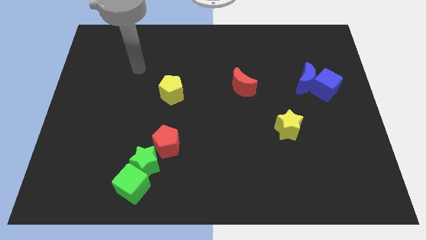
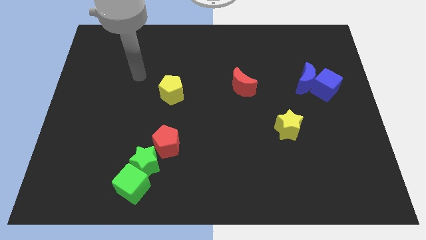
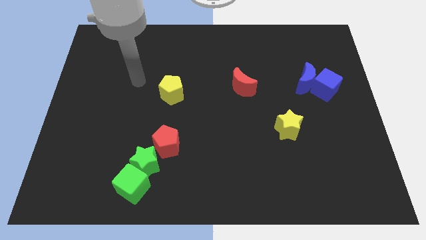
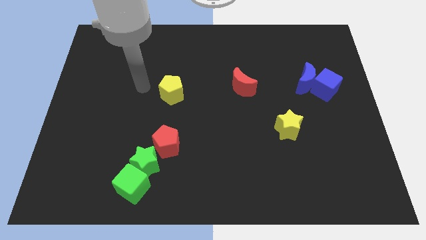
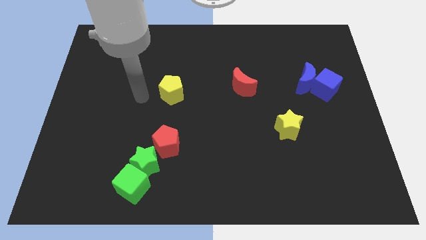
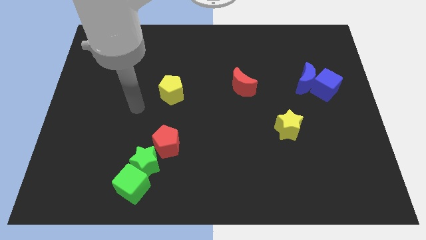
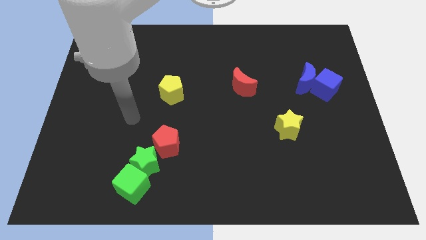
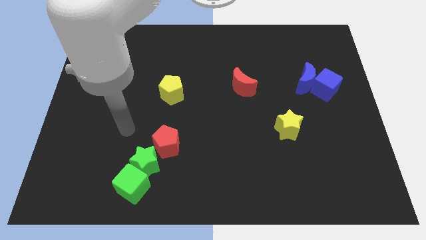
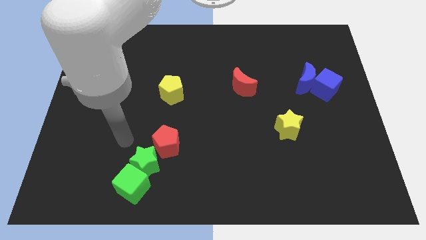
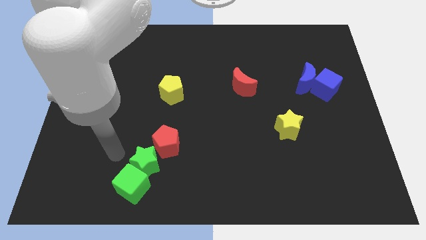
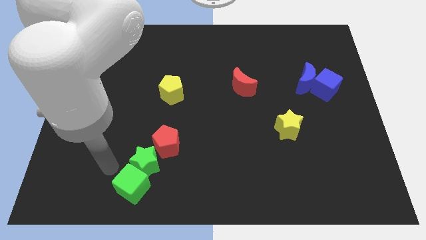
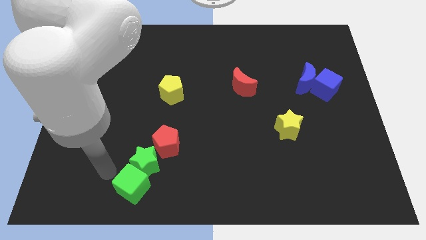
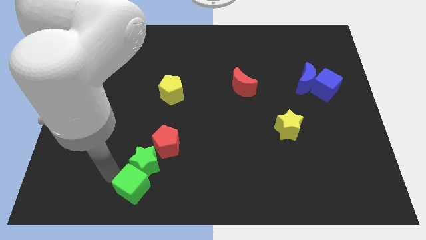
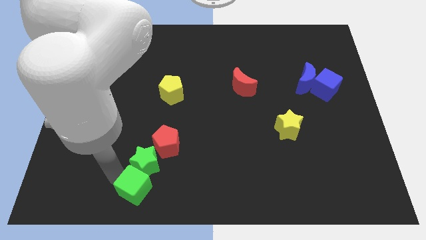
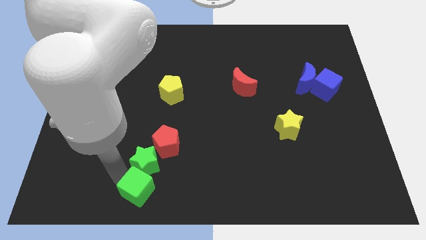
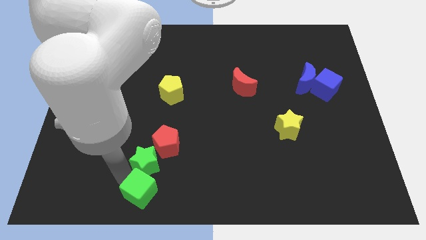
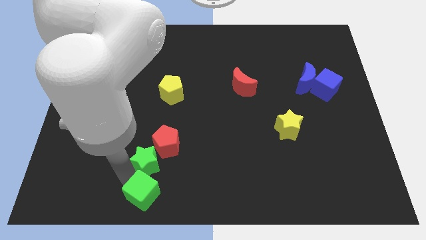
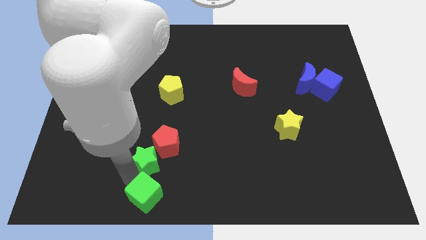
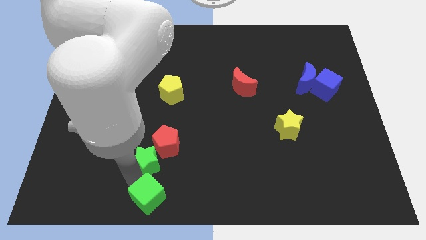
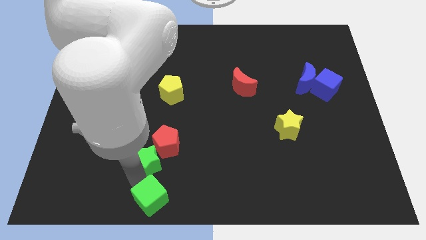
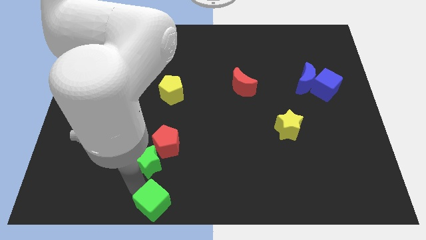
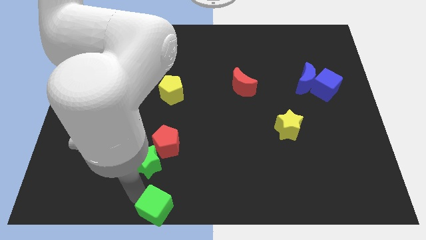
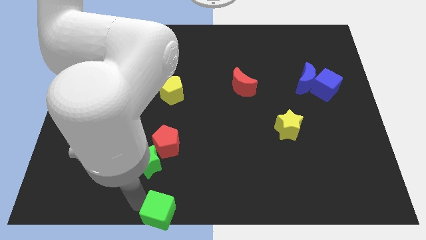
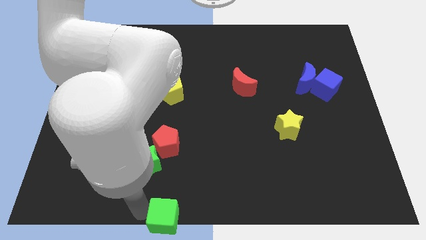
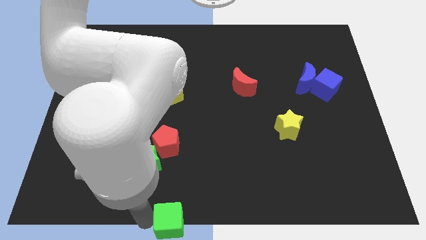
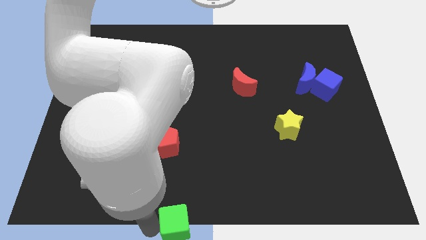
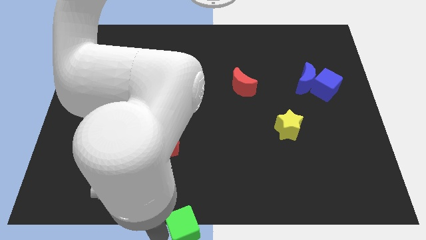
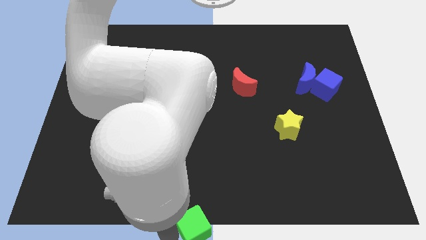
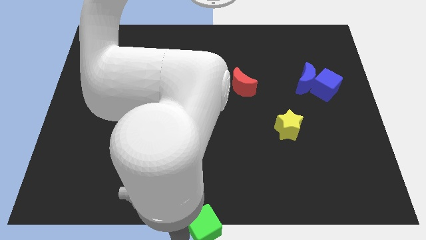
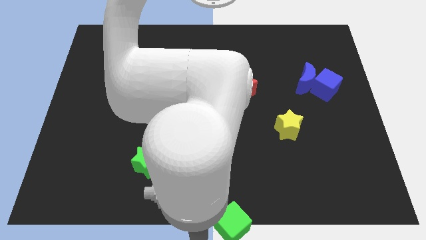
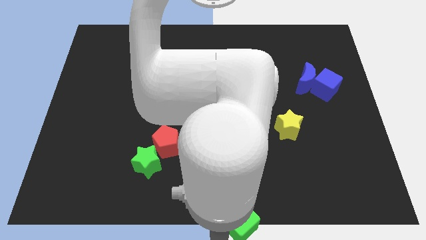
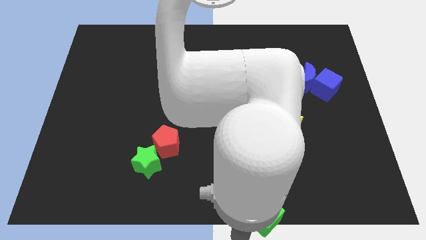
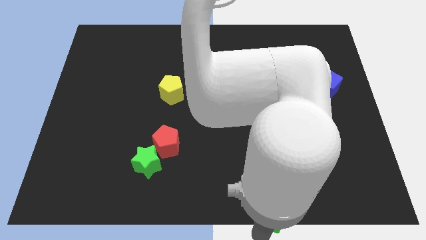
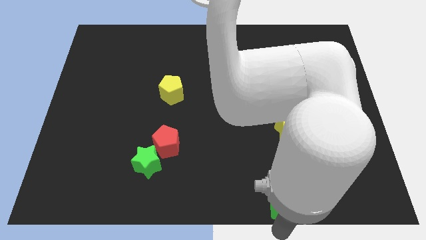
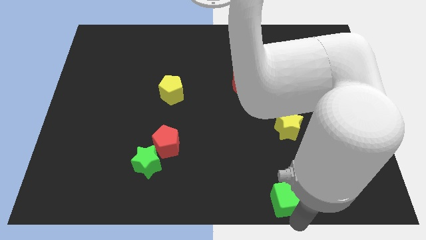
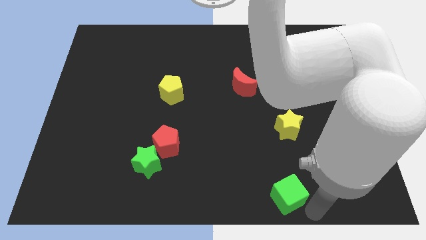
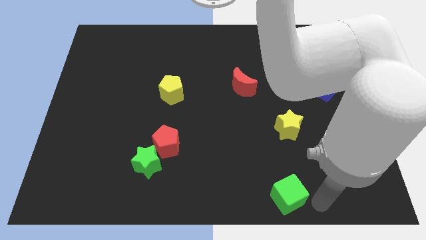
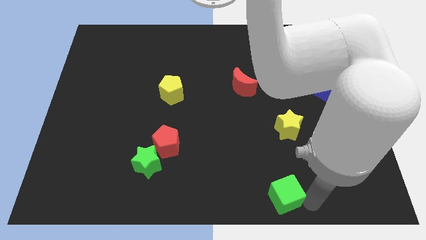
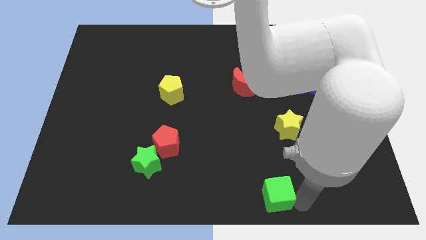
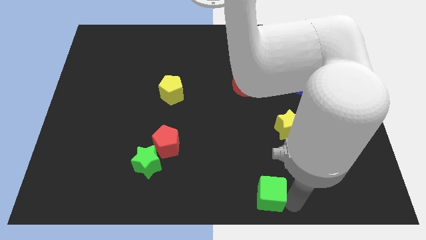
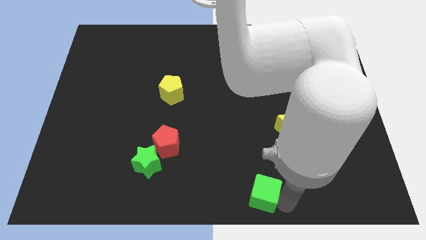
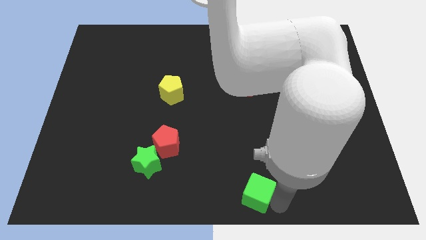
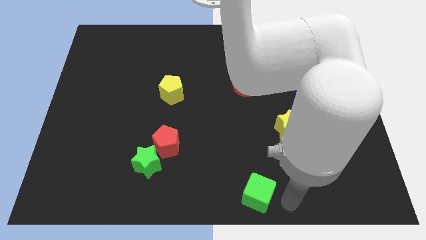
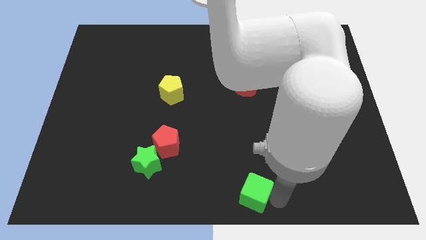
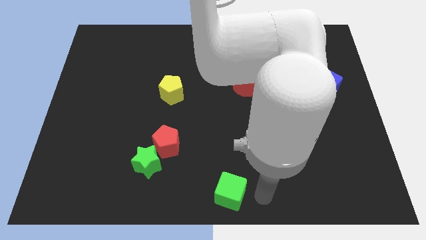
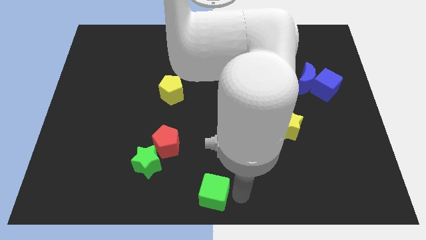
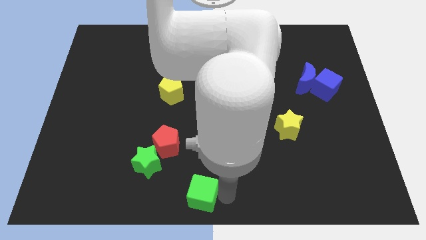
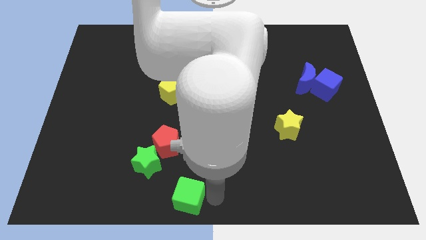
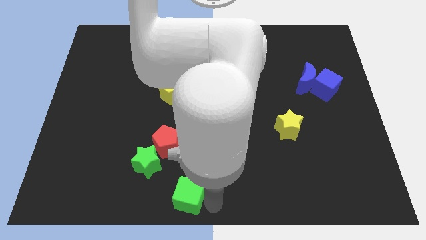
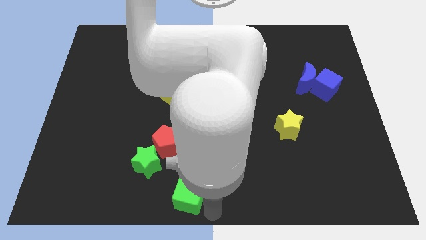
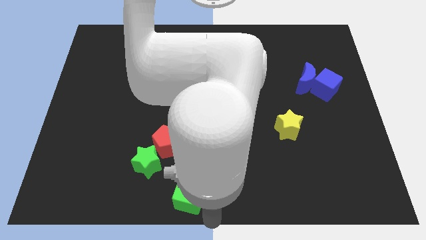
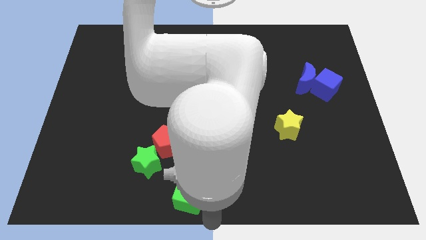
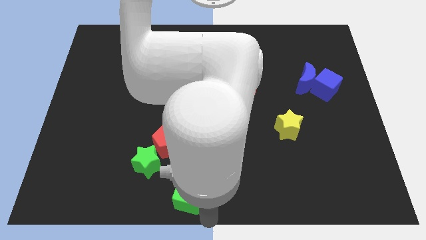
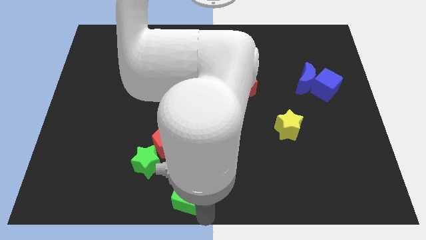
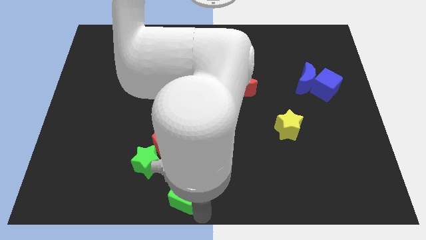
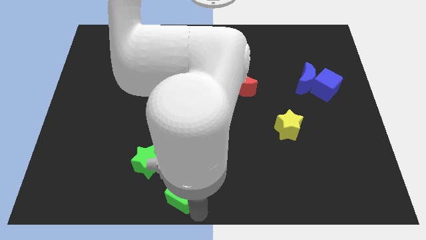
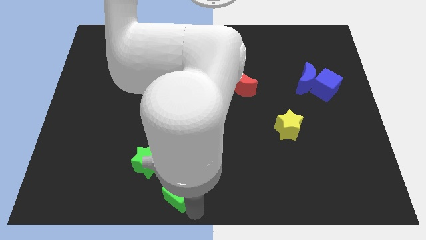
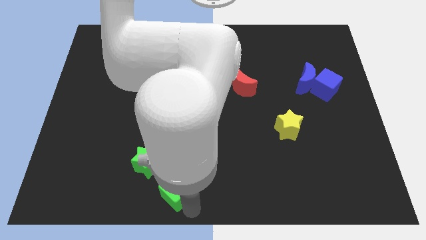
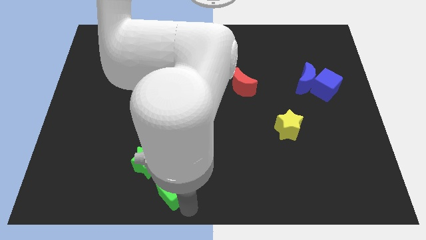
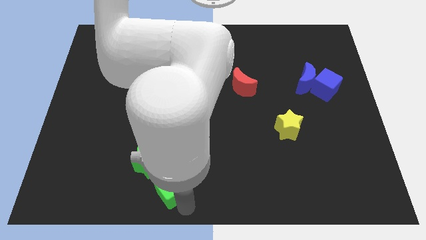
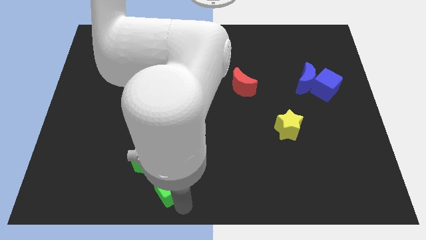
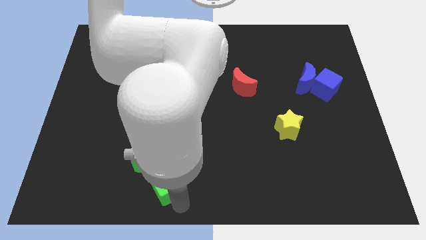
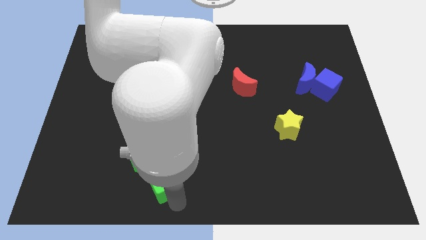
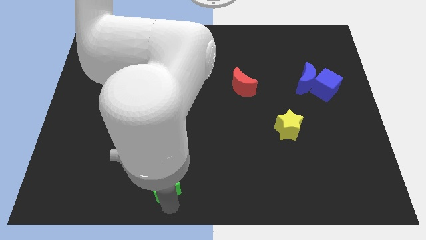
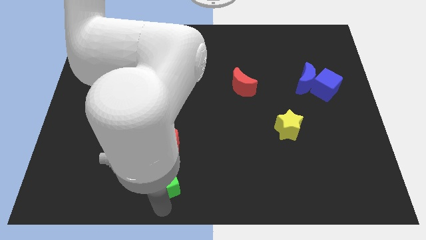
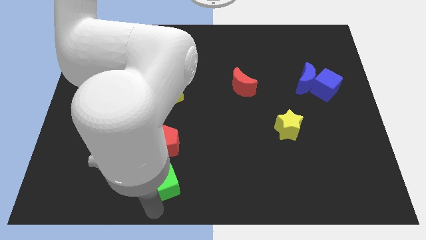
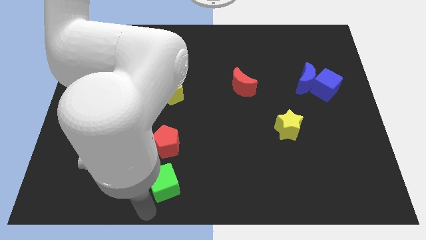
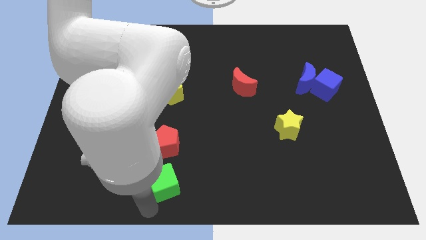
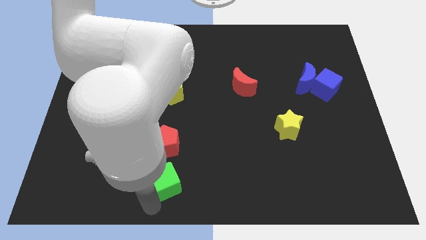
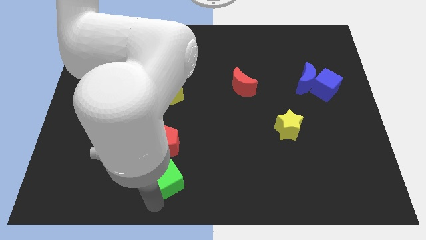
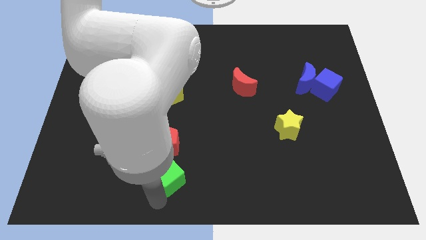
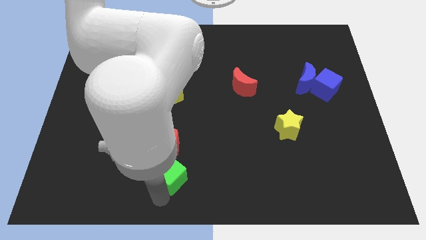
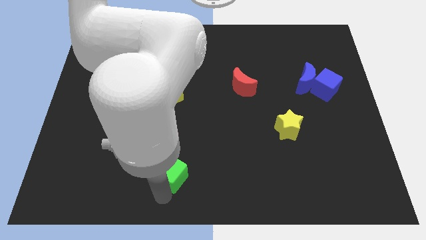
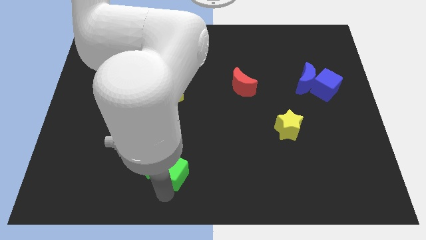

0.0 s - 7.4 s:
slide the green cube a little up and then to the right

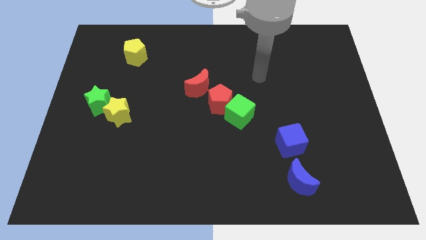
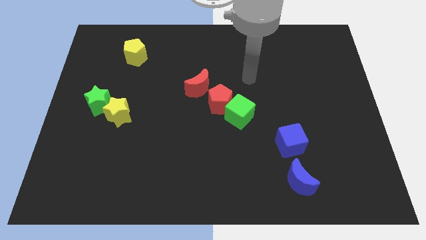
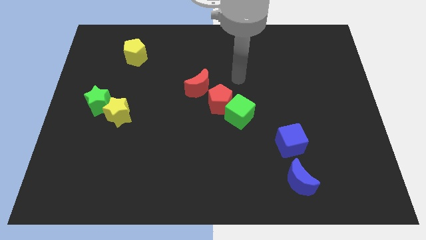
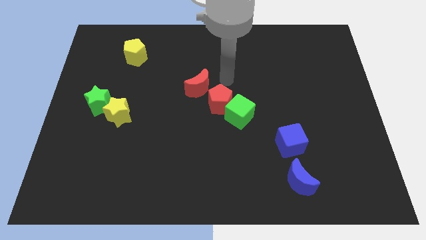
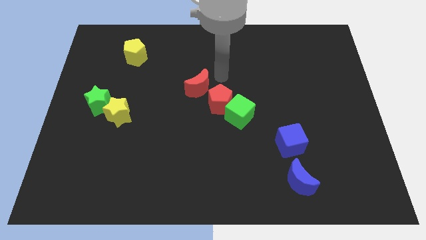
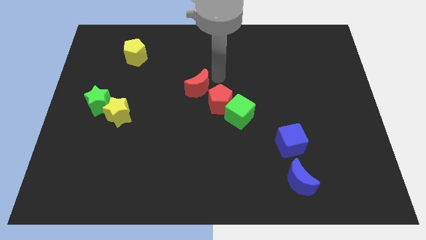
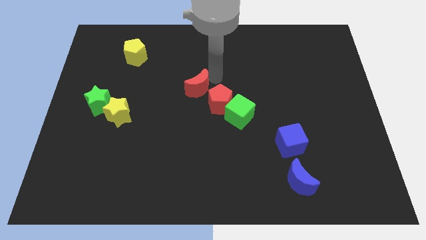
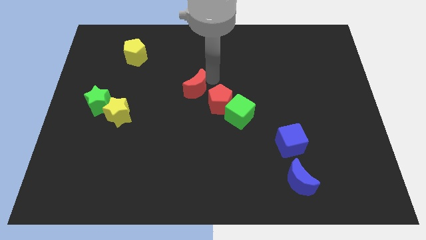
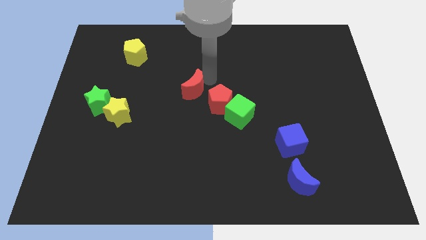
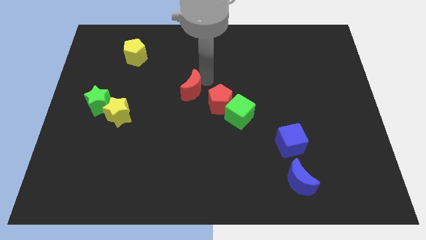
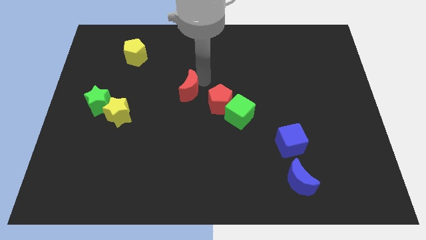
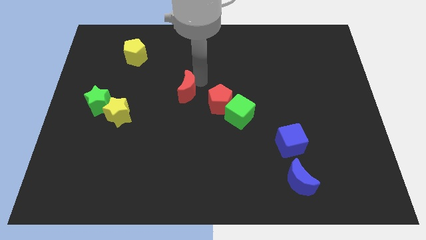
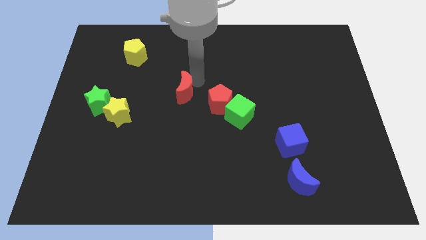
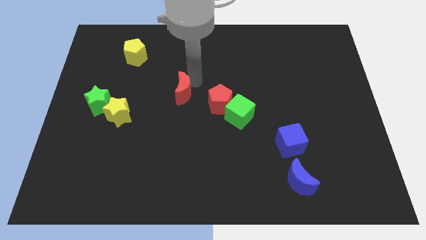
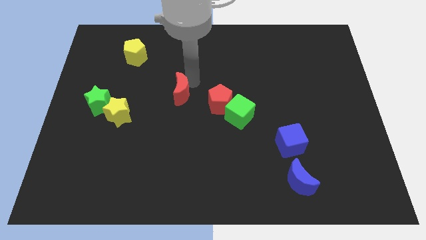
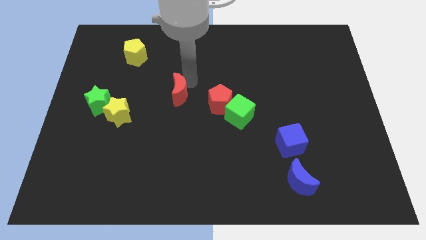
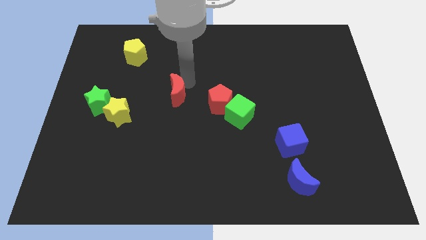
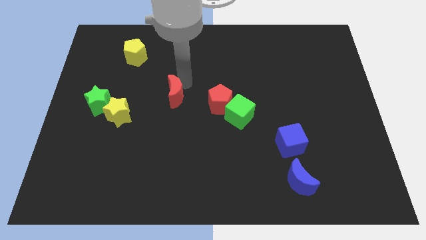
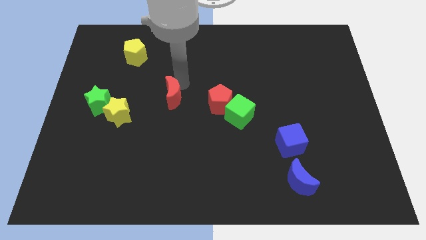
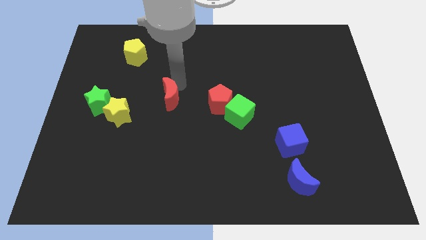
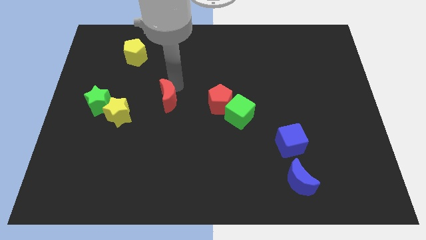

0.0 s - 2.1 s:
move the red moon a bit downwards and then to the left
